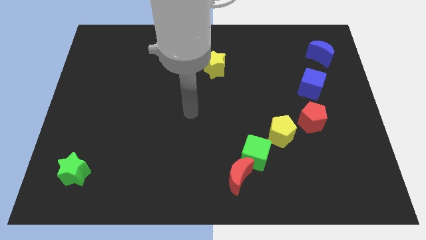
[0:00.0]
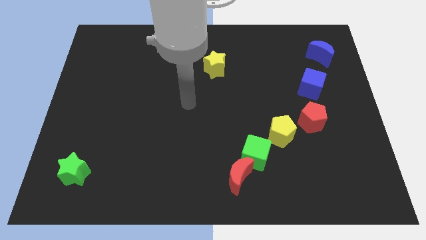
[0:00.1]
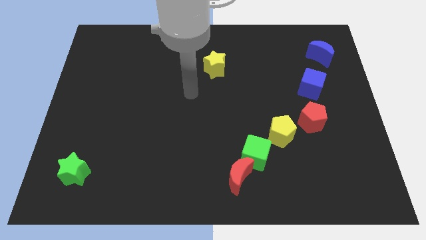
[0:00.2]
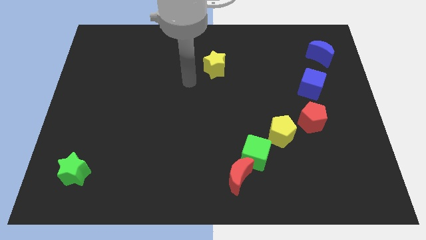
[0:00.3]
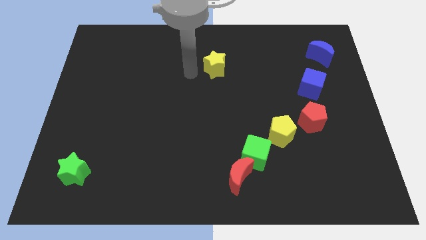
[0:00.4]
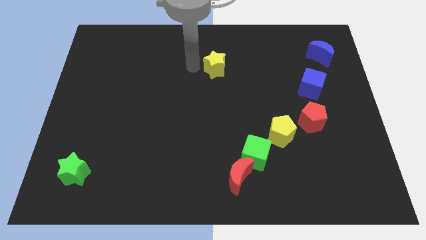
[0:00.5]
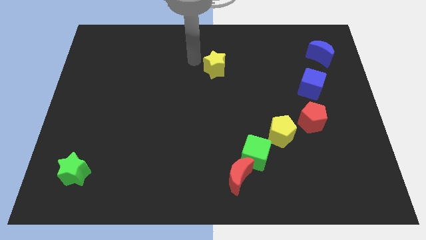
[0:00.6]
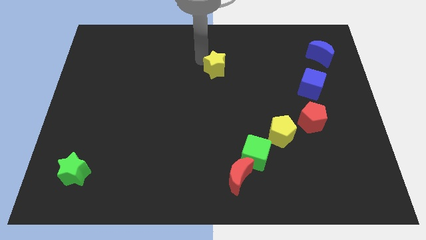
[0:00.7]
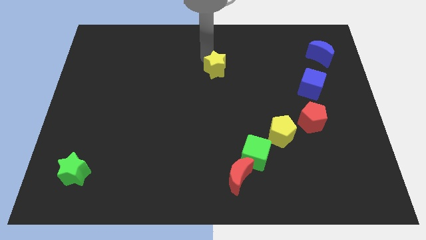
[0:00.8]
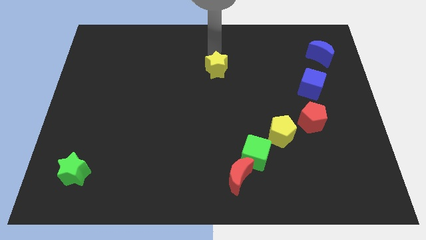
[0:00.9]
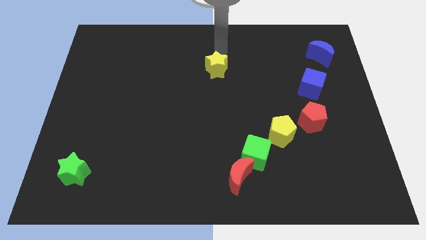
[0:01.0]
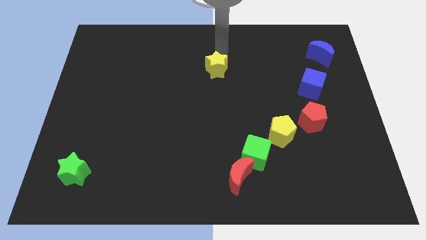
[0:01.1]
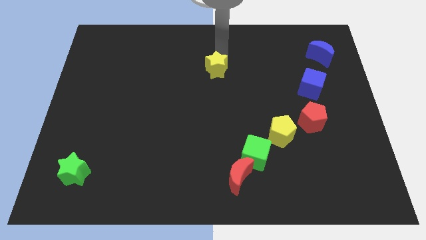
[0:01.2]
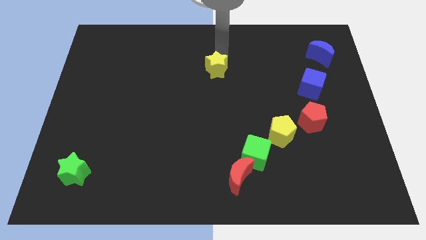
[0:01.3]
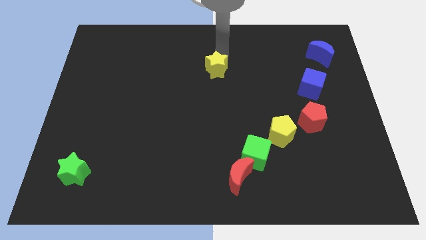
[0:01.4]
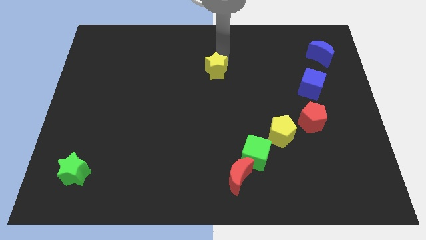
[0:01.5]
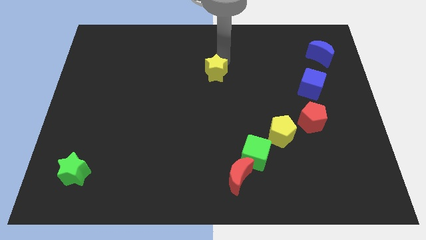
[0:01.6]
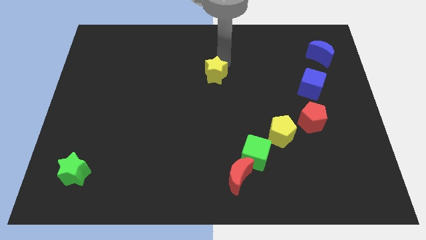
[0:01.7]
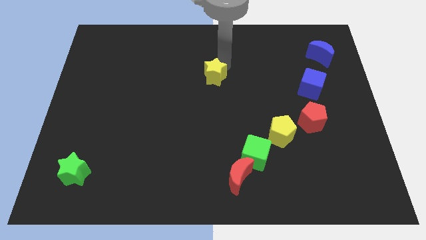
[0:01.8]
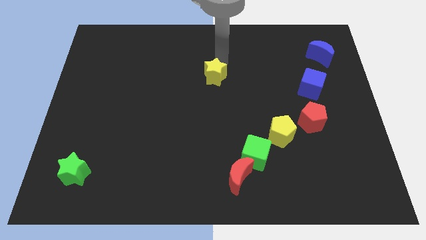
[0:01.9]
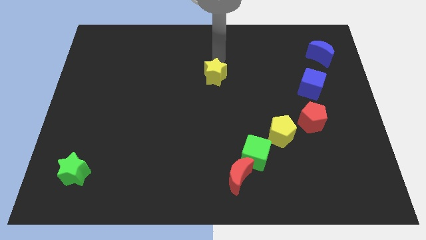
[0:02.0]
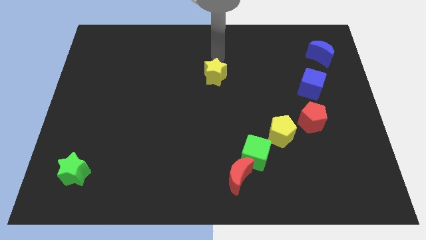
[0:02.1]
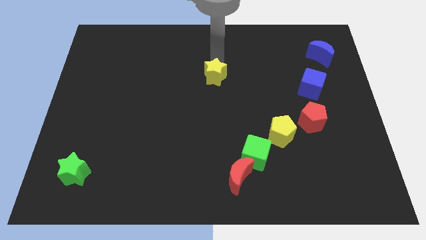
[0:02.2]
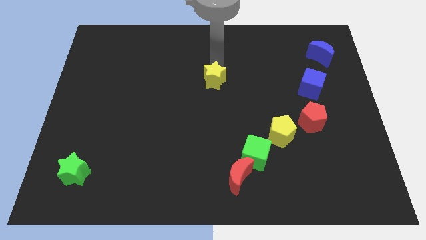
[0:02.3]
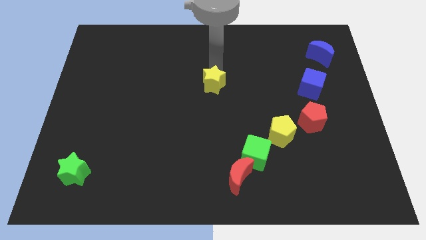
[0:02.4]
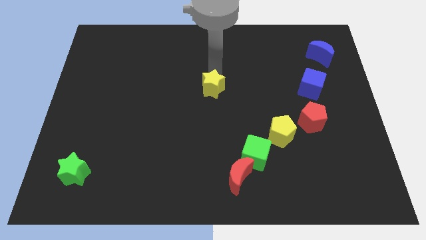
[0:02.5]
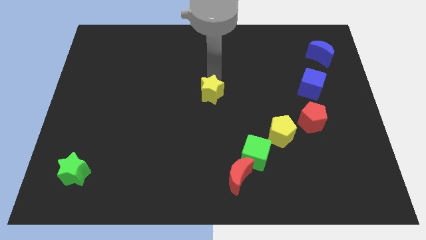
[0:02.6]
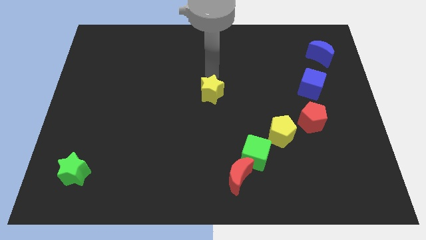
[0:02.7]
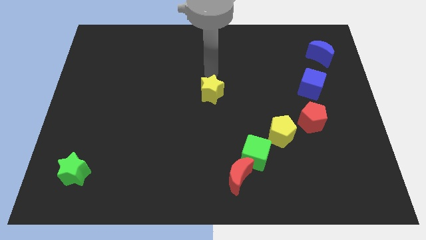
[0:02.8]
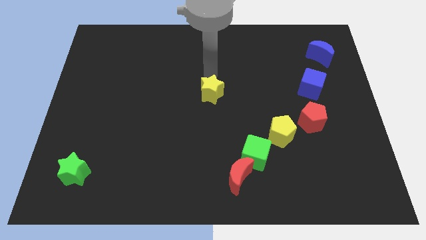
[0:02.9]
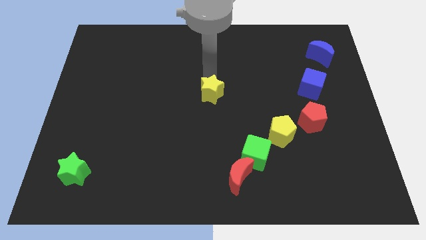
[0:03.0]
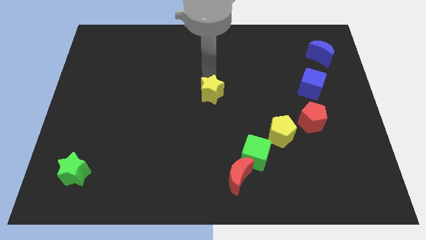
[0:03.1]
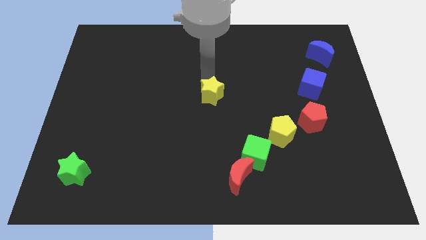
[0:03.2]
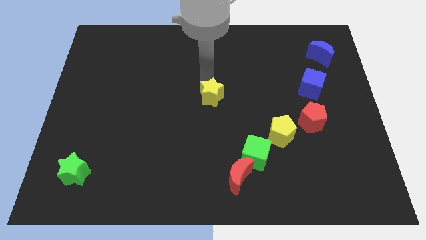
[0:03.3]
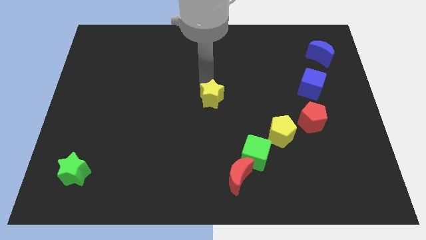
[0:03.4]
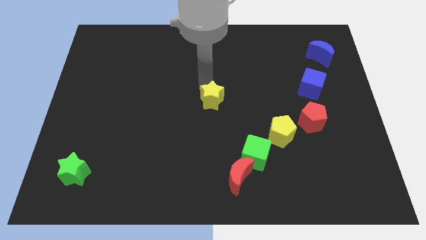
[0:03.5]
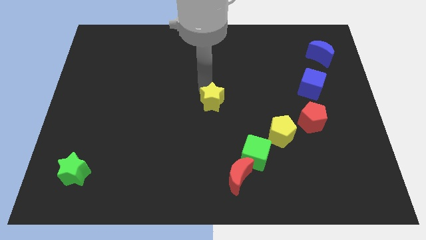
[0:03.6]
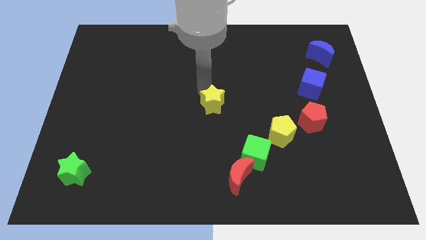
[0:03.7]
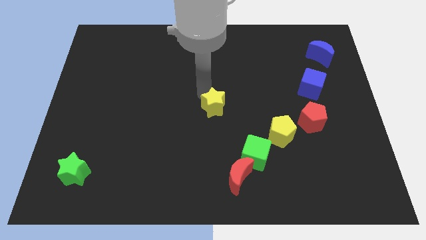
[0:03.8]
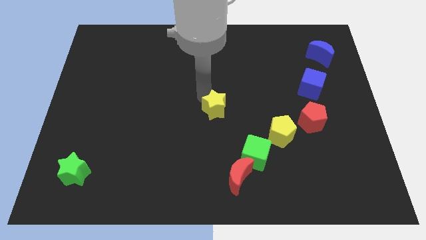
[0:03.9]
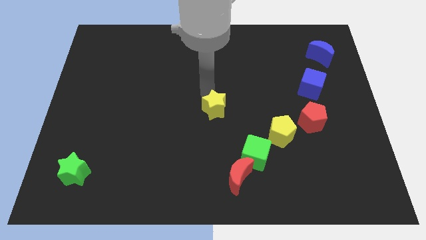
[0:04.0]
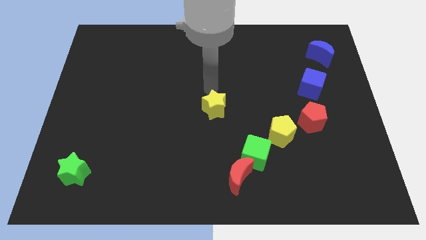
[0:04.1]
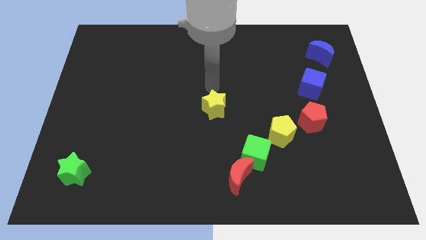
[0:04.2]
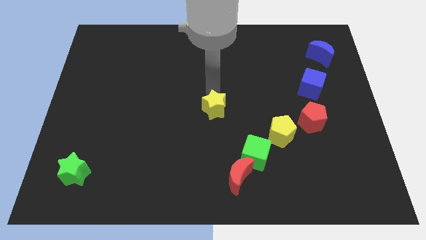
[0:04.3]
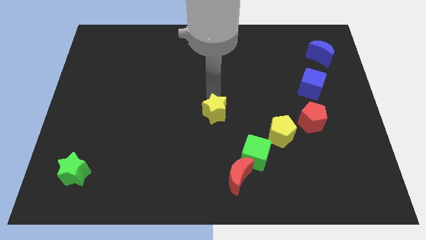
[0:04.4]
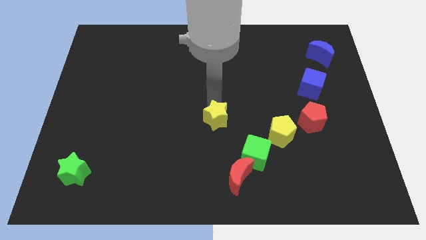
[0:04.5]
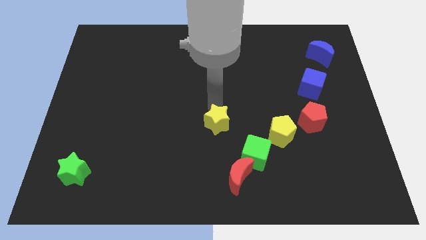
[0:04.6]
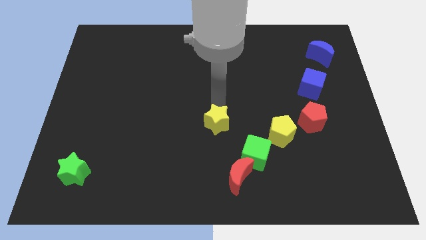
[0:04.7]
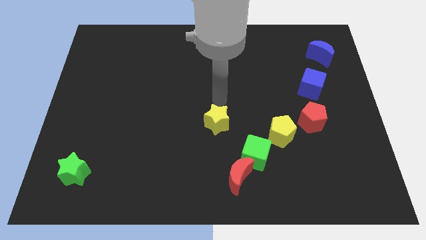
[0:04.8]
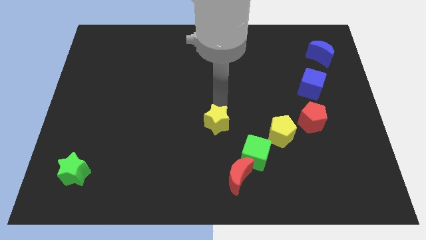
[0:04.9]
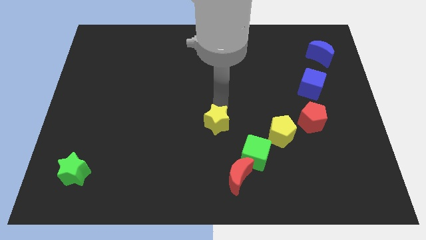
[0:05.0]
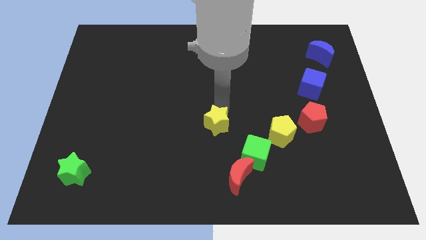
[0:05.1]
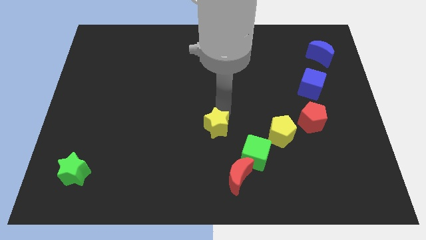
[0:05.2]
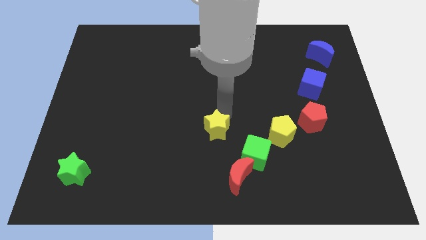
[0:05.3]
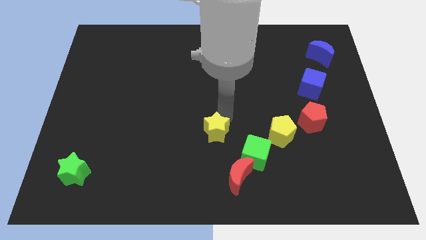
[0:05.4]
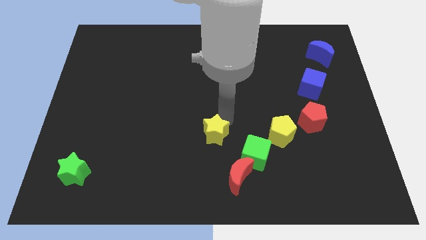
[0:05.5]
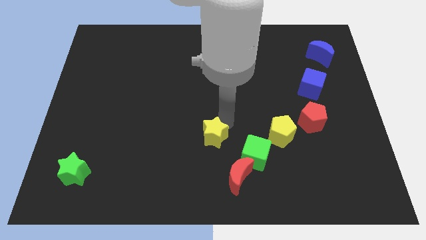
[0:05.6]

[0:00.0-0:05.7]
put the yellow star diagonally up and to the left of the red moon

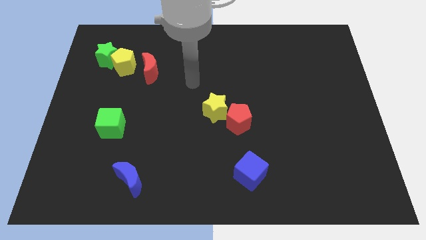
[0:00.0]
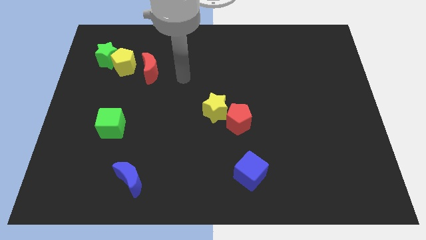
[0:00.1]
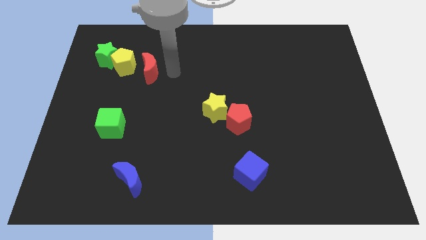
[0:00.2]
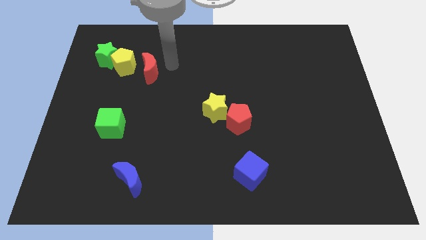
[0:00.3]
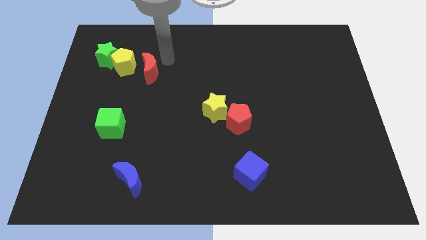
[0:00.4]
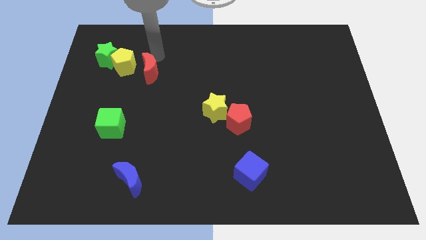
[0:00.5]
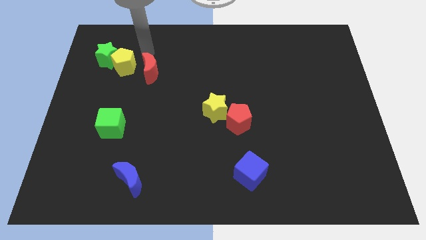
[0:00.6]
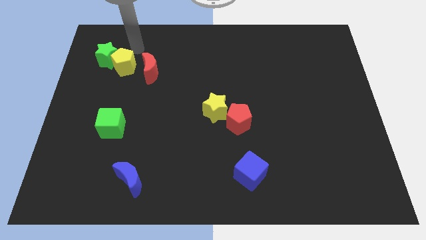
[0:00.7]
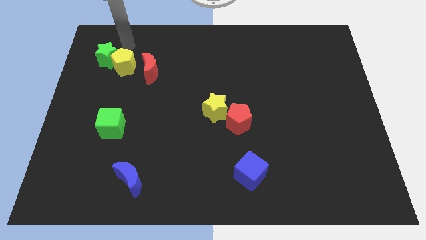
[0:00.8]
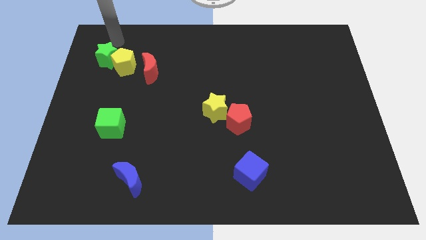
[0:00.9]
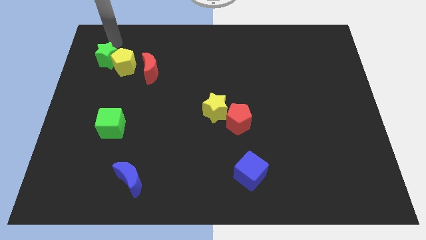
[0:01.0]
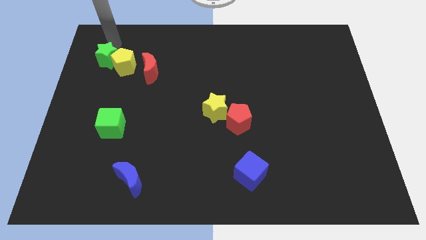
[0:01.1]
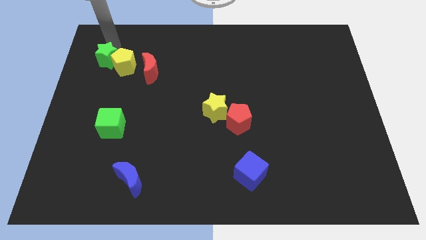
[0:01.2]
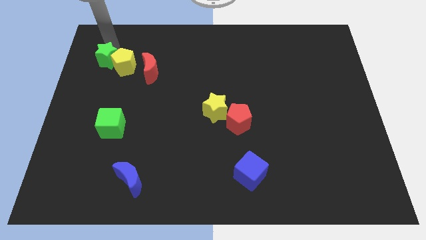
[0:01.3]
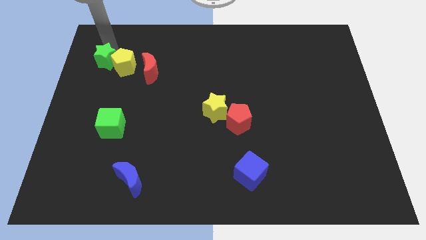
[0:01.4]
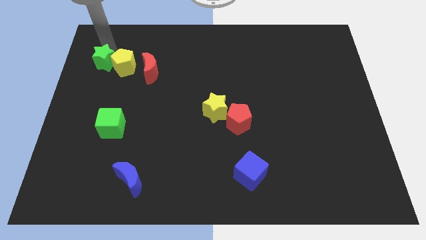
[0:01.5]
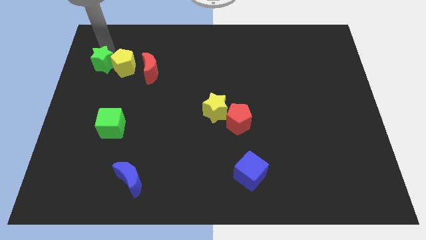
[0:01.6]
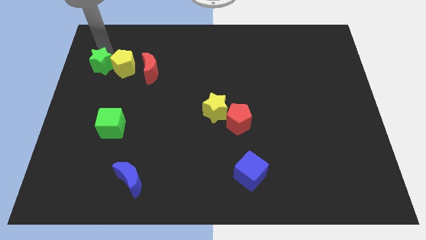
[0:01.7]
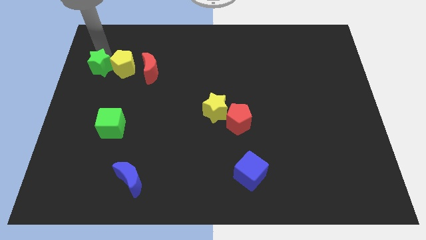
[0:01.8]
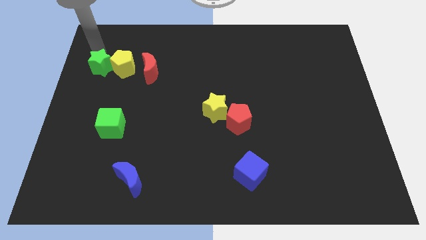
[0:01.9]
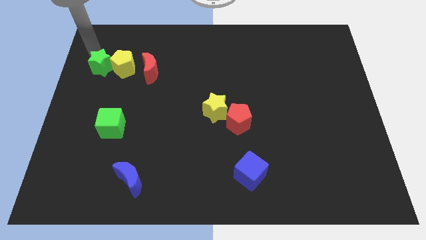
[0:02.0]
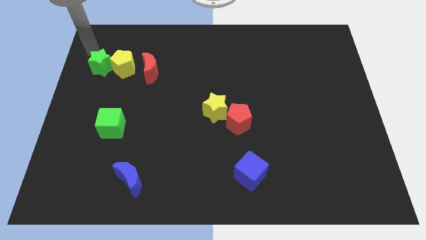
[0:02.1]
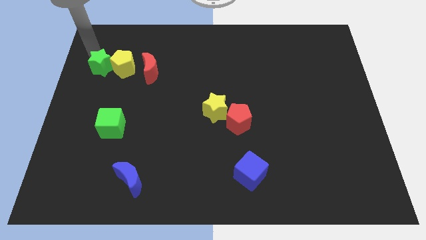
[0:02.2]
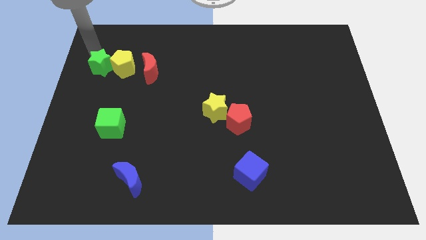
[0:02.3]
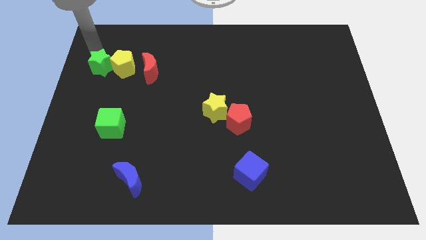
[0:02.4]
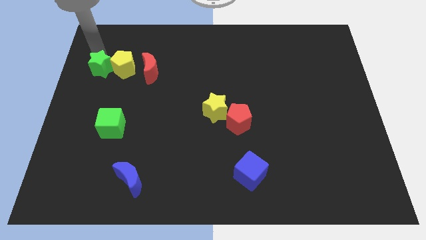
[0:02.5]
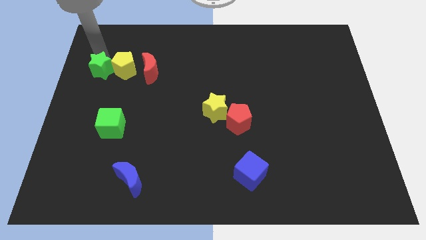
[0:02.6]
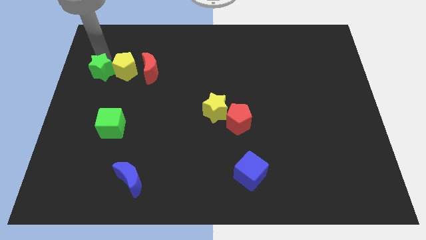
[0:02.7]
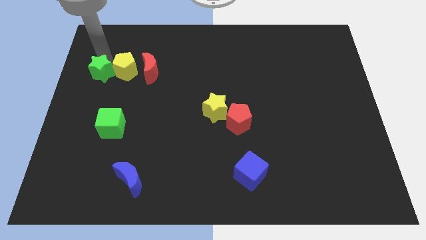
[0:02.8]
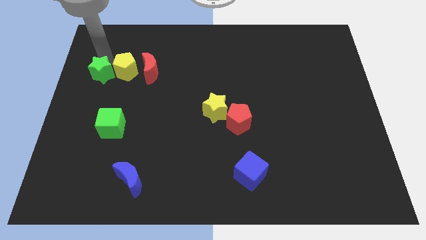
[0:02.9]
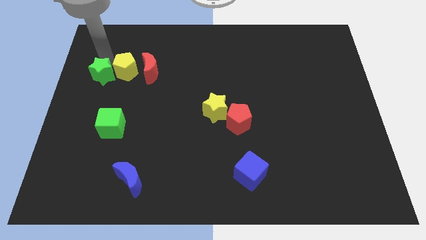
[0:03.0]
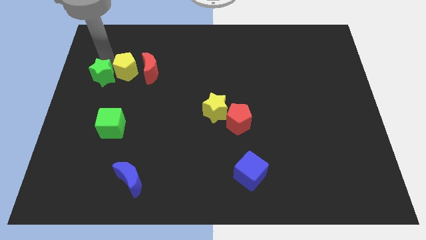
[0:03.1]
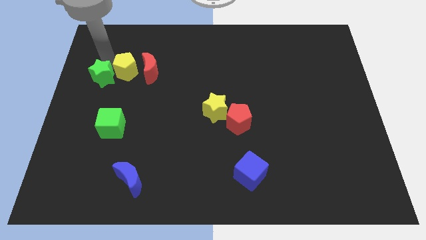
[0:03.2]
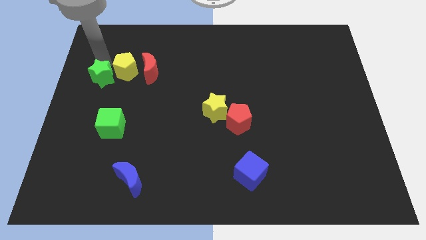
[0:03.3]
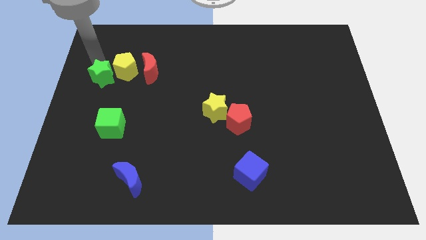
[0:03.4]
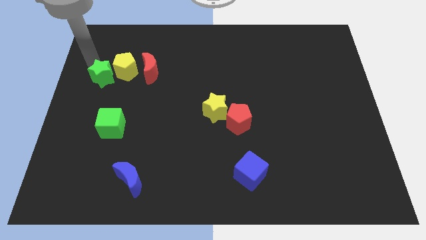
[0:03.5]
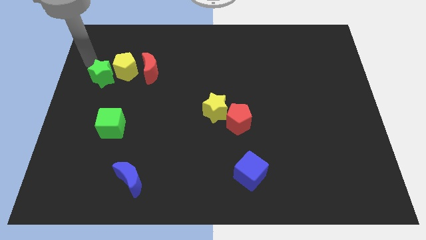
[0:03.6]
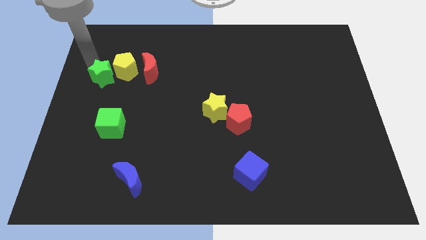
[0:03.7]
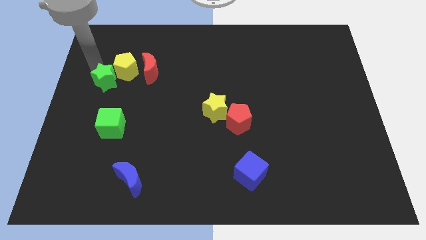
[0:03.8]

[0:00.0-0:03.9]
slide the green star above the green cube
